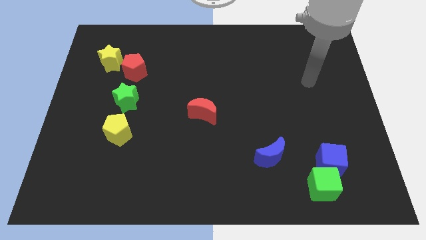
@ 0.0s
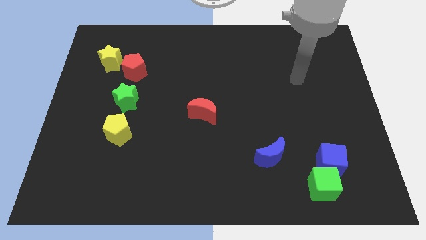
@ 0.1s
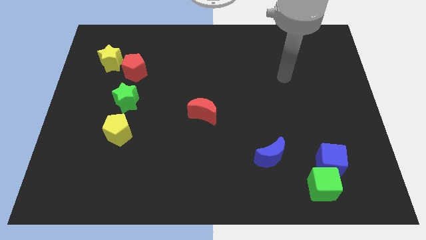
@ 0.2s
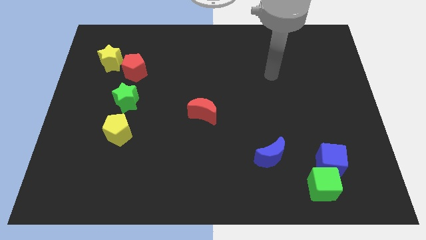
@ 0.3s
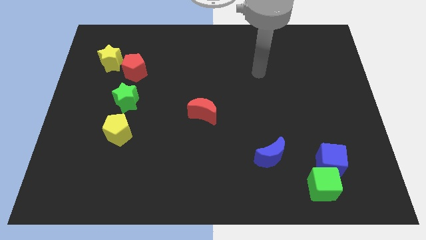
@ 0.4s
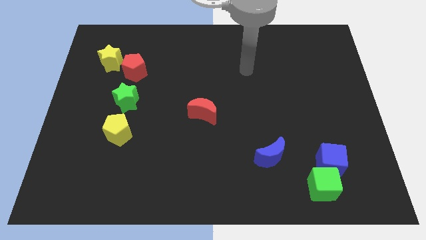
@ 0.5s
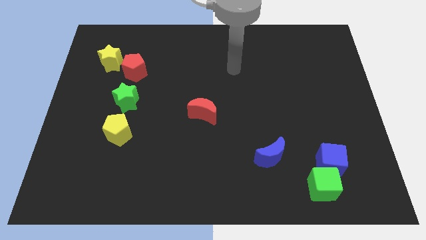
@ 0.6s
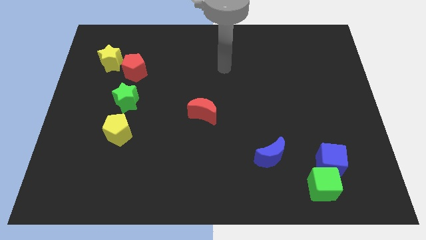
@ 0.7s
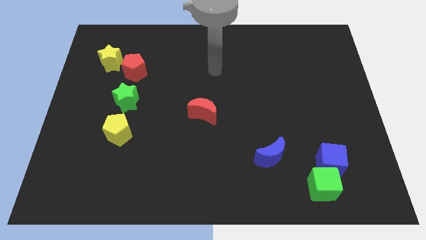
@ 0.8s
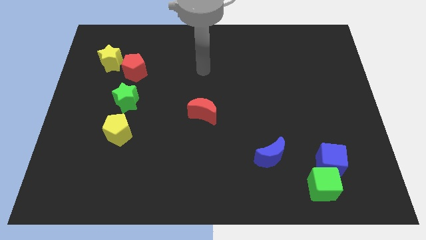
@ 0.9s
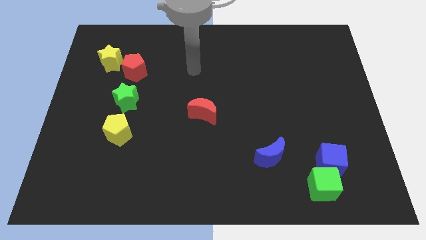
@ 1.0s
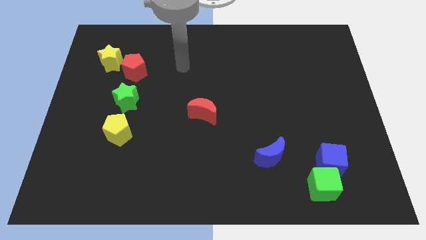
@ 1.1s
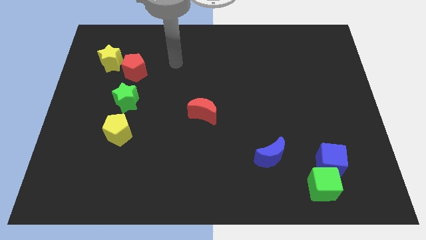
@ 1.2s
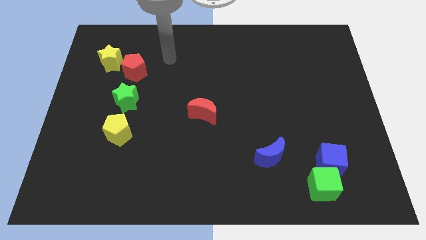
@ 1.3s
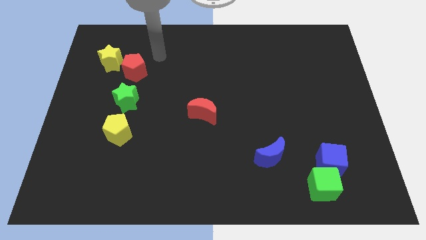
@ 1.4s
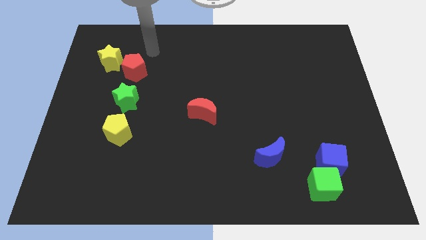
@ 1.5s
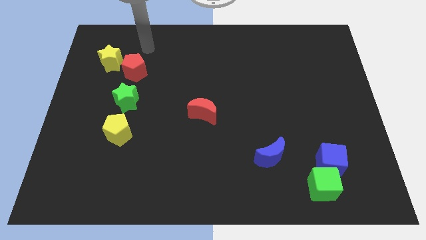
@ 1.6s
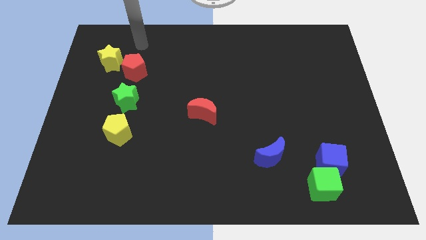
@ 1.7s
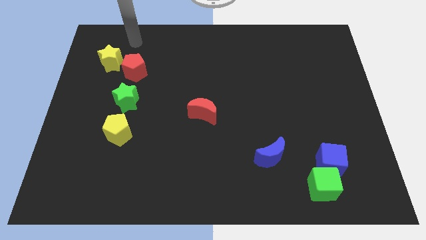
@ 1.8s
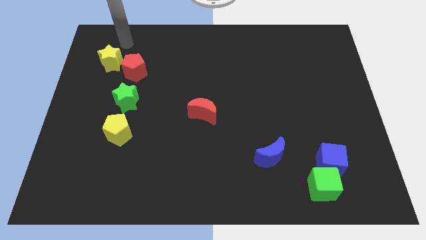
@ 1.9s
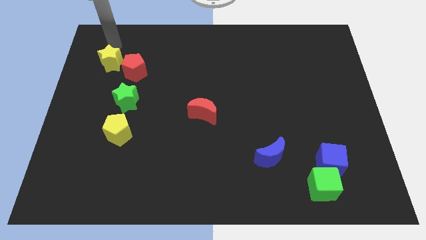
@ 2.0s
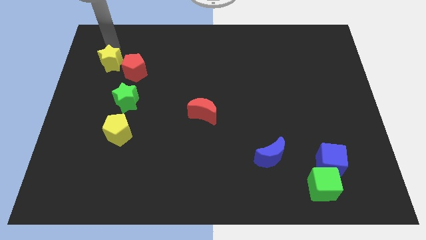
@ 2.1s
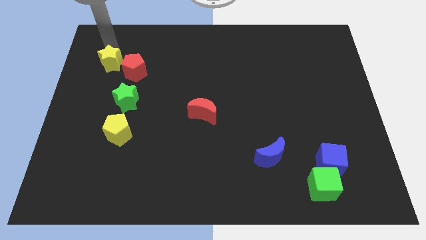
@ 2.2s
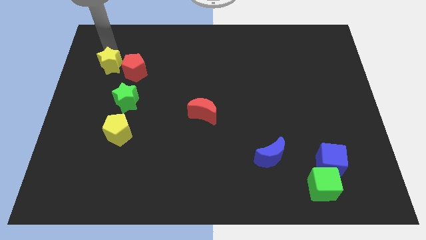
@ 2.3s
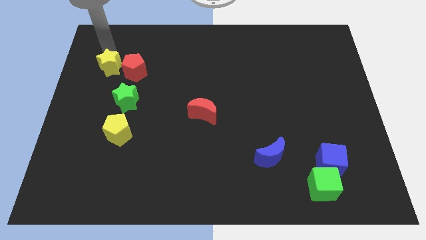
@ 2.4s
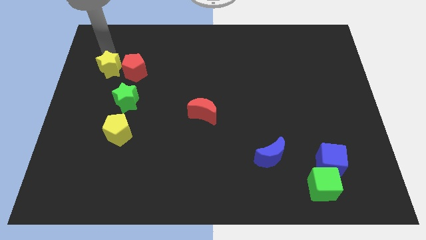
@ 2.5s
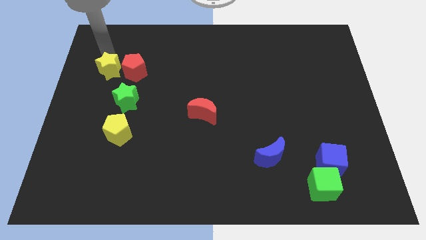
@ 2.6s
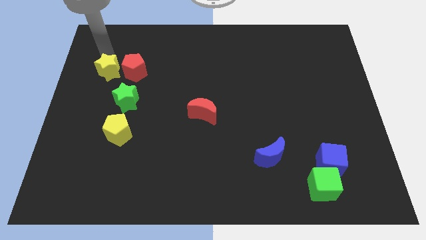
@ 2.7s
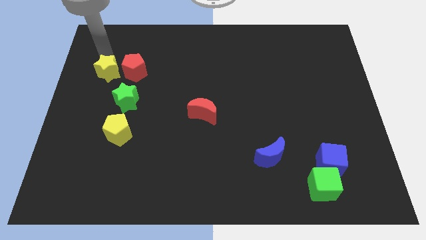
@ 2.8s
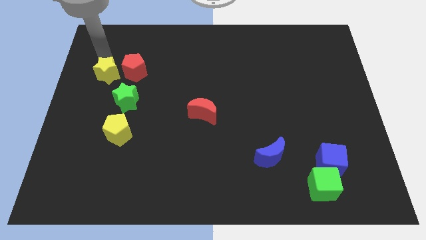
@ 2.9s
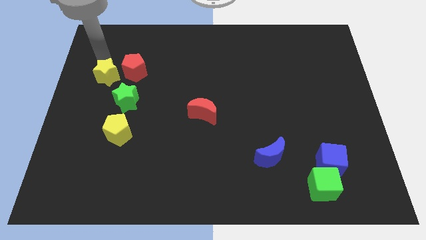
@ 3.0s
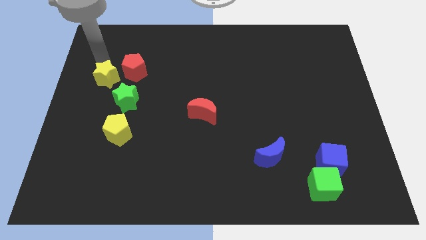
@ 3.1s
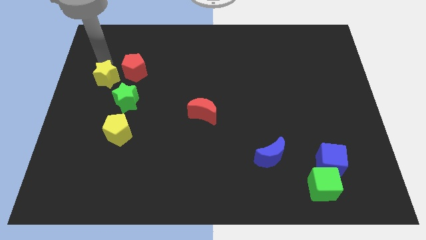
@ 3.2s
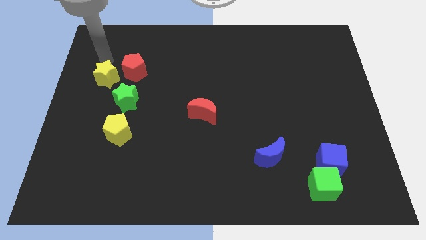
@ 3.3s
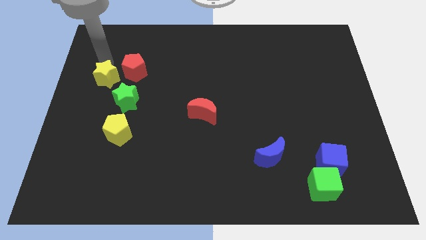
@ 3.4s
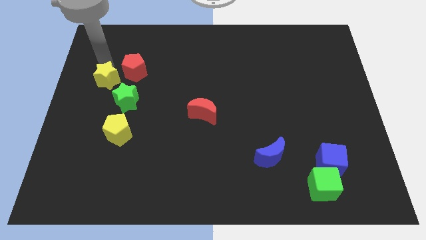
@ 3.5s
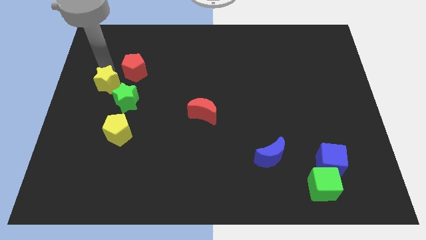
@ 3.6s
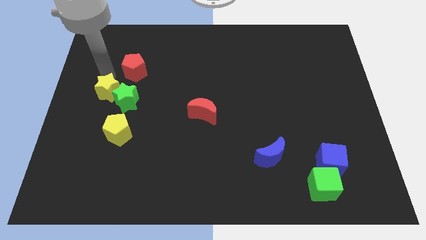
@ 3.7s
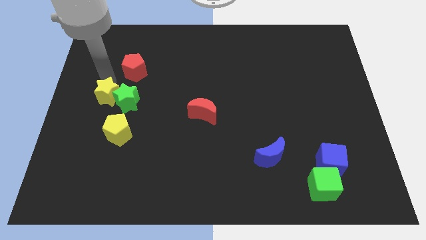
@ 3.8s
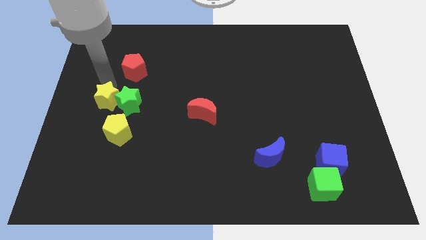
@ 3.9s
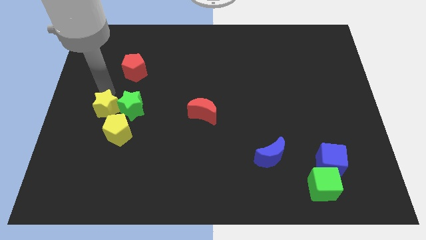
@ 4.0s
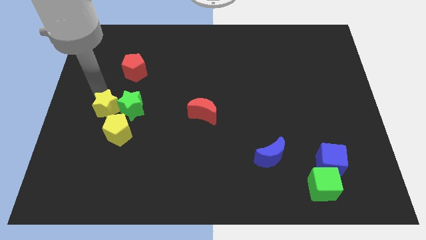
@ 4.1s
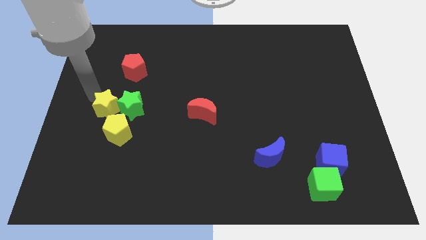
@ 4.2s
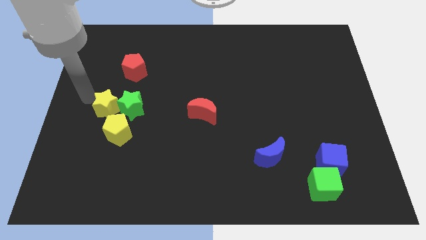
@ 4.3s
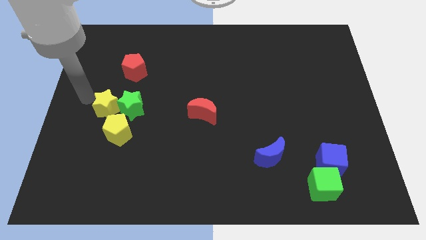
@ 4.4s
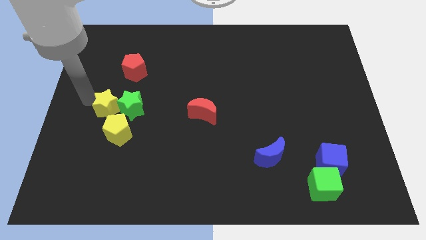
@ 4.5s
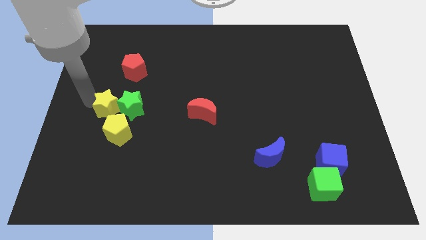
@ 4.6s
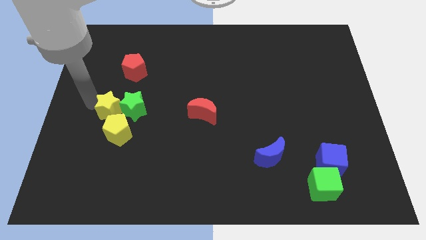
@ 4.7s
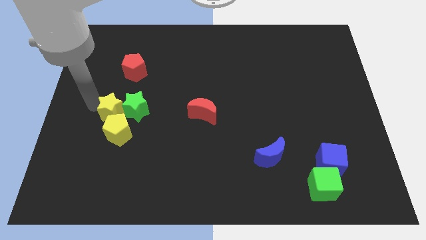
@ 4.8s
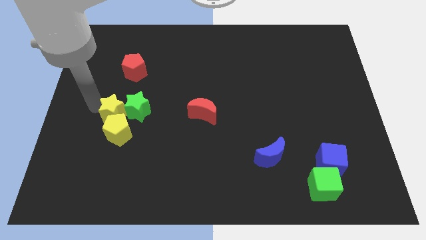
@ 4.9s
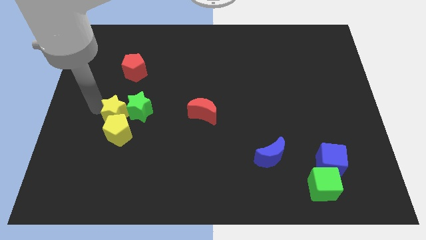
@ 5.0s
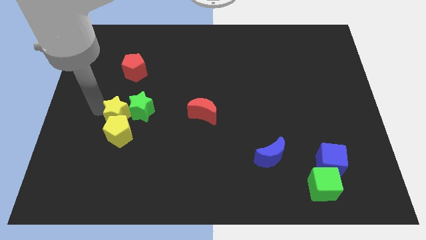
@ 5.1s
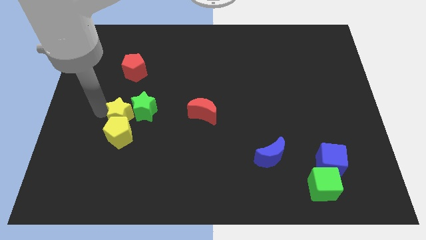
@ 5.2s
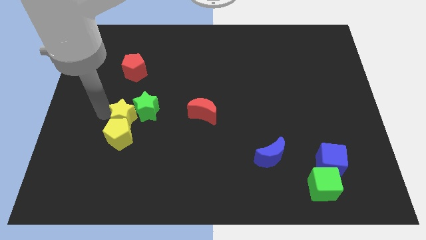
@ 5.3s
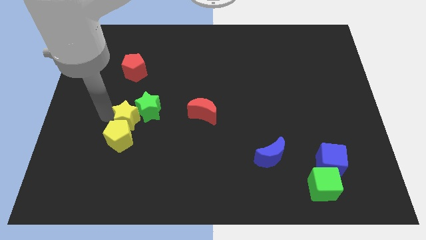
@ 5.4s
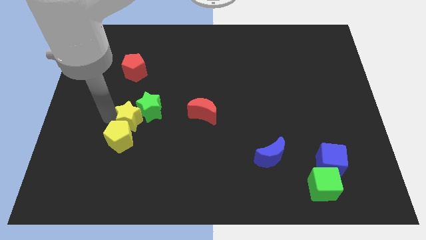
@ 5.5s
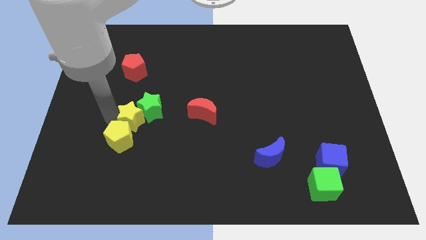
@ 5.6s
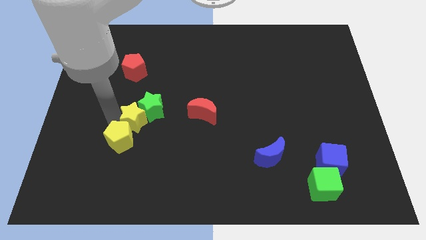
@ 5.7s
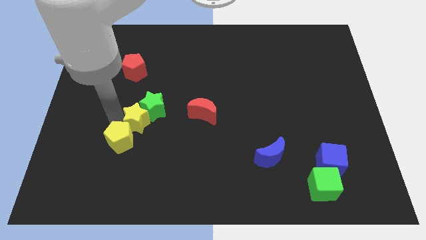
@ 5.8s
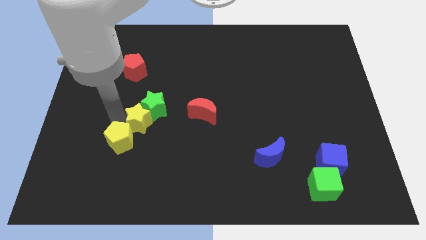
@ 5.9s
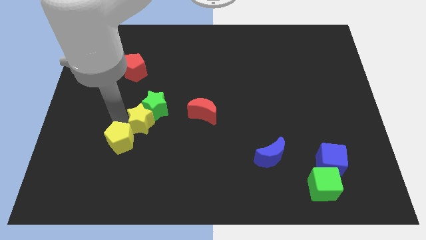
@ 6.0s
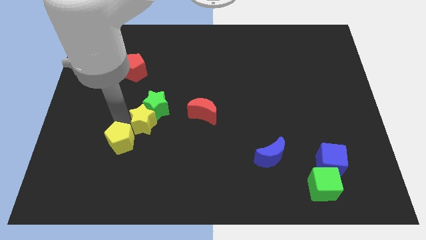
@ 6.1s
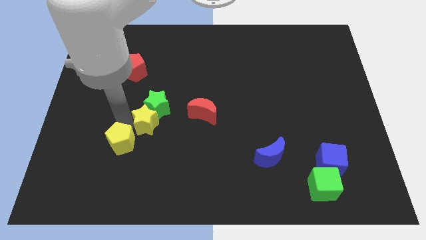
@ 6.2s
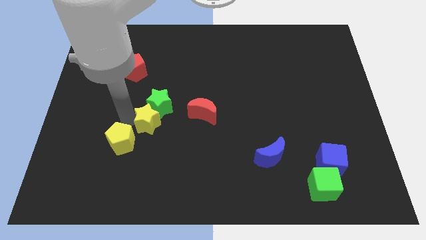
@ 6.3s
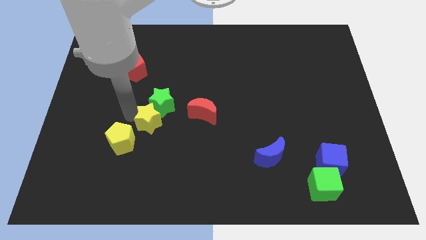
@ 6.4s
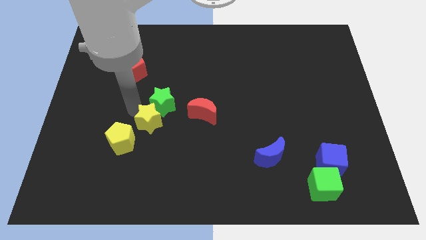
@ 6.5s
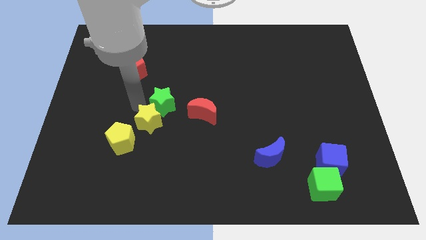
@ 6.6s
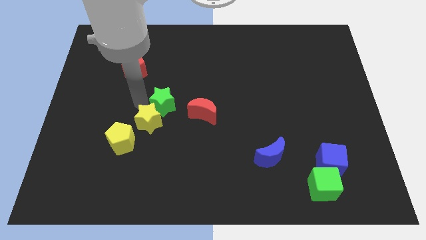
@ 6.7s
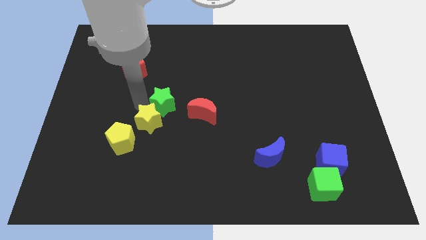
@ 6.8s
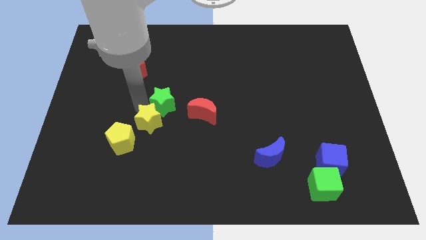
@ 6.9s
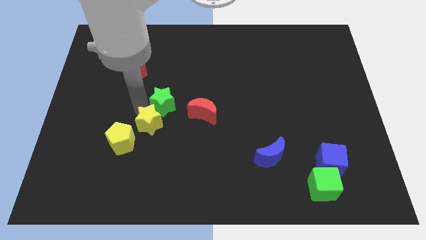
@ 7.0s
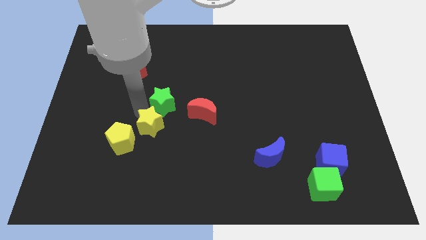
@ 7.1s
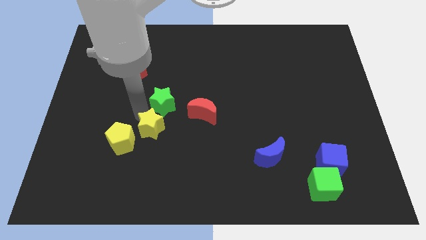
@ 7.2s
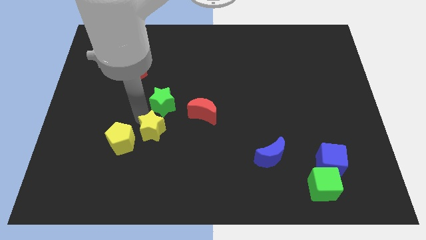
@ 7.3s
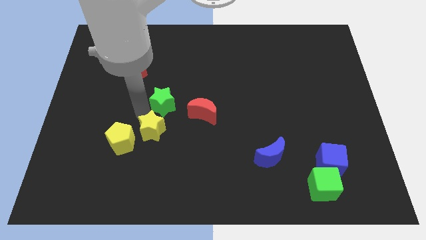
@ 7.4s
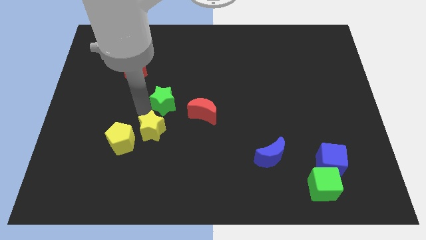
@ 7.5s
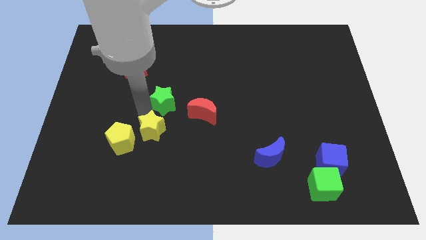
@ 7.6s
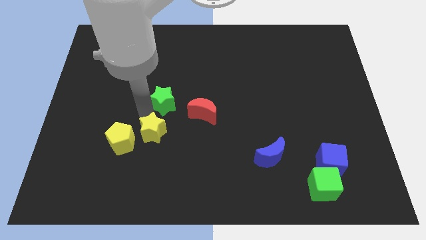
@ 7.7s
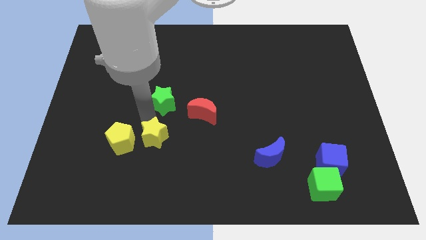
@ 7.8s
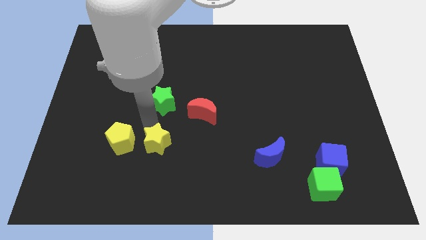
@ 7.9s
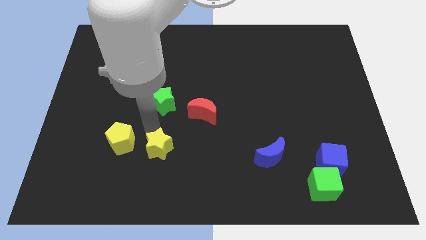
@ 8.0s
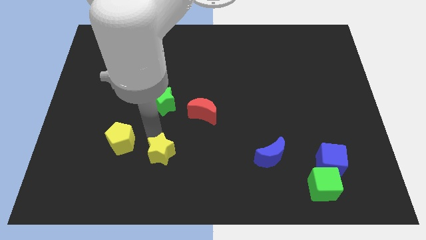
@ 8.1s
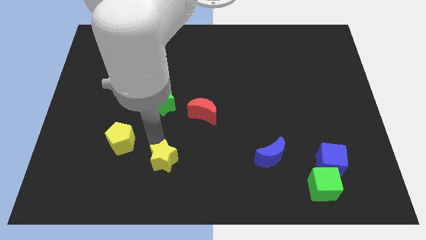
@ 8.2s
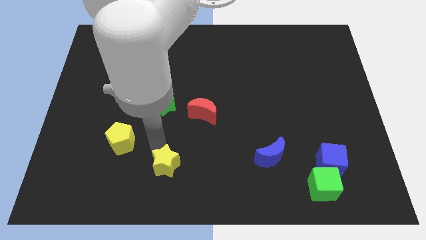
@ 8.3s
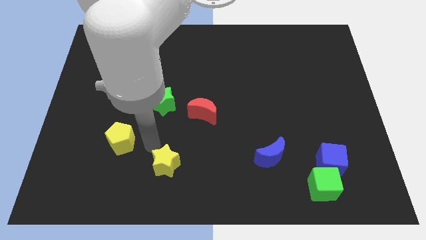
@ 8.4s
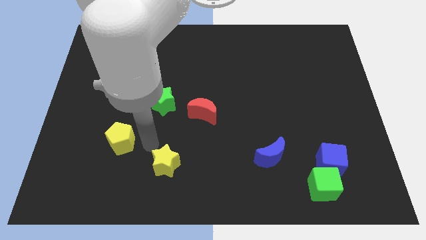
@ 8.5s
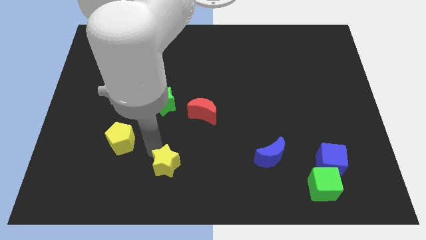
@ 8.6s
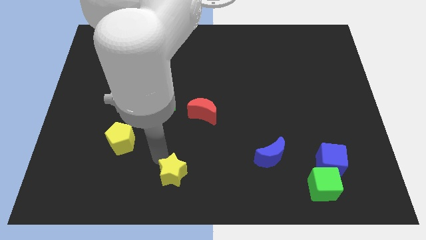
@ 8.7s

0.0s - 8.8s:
put the yellow star to the bottom side
